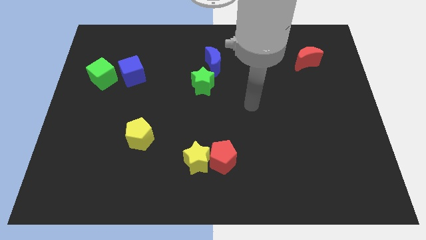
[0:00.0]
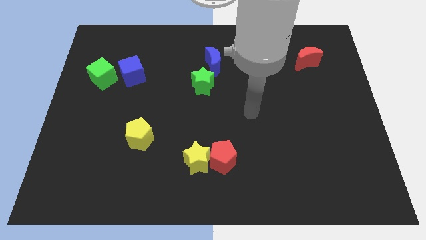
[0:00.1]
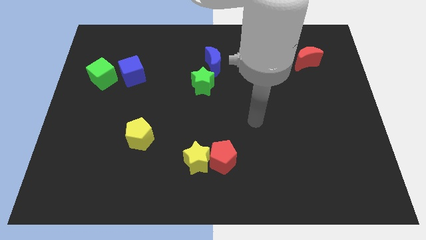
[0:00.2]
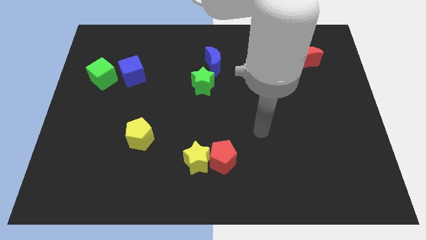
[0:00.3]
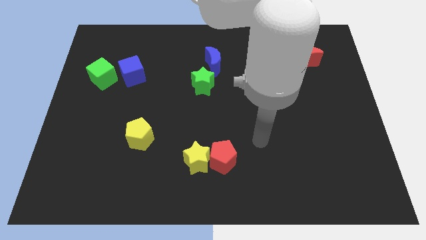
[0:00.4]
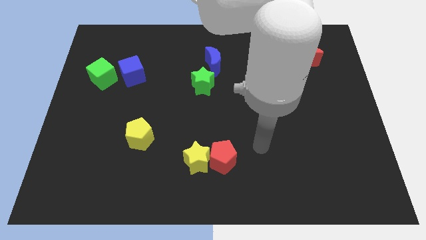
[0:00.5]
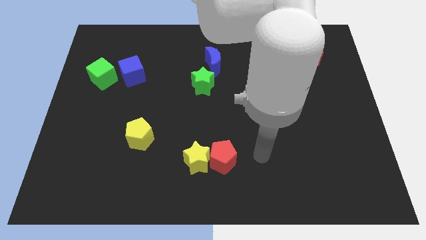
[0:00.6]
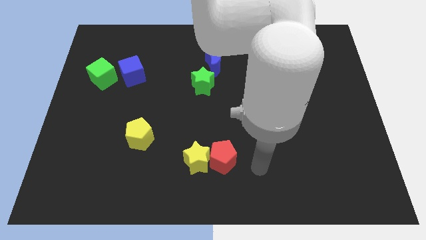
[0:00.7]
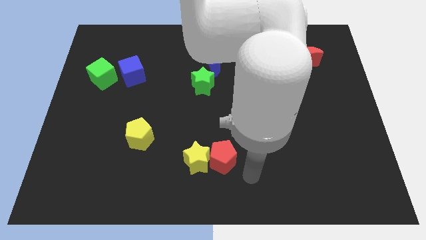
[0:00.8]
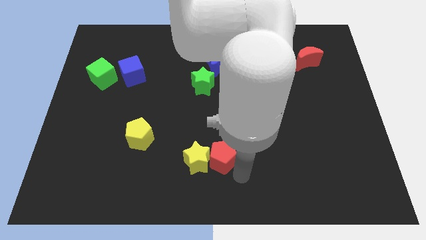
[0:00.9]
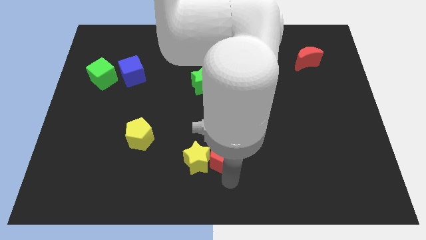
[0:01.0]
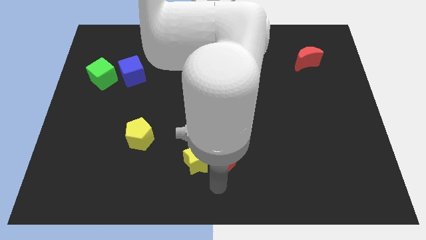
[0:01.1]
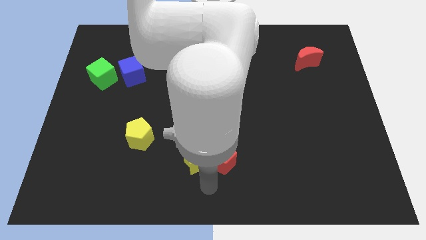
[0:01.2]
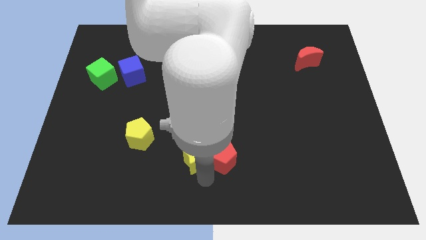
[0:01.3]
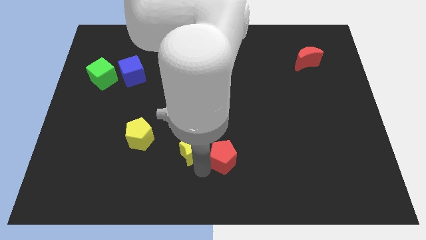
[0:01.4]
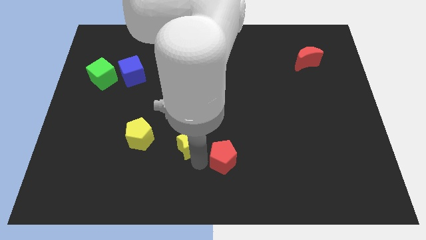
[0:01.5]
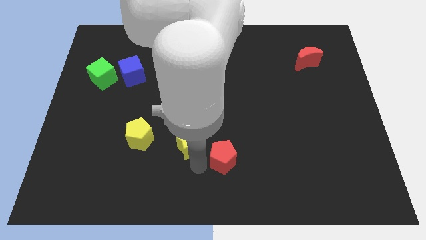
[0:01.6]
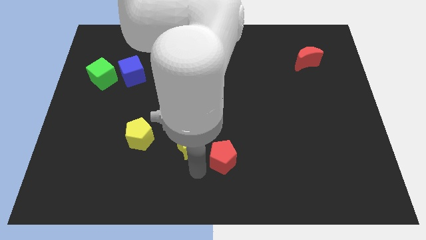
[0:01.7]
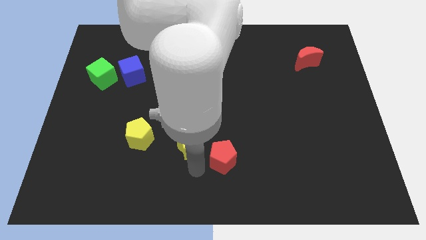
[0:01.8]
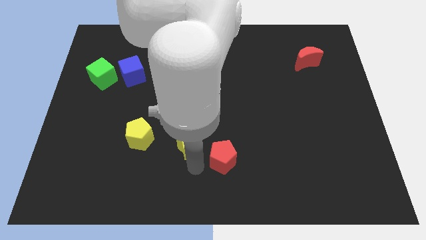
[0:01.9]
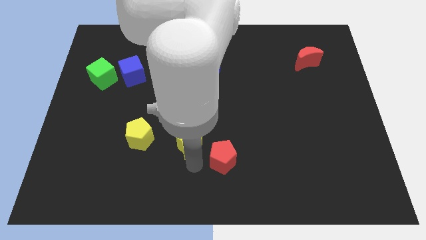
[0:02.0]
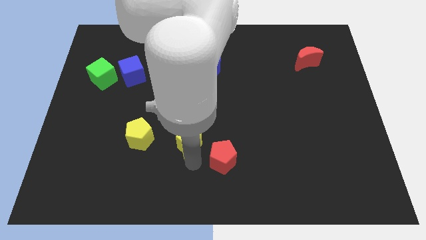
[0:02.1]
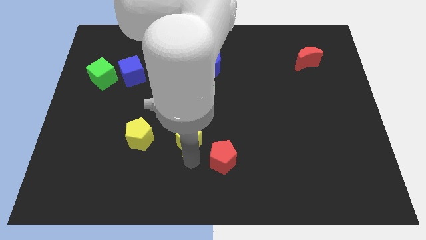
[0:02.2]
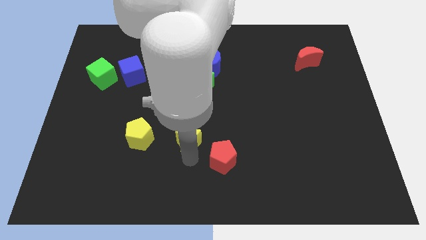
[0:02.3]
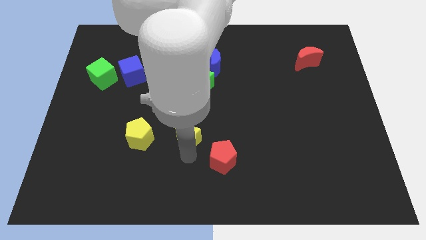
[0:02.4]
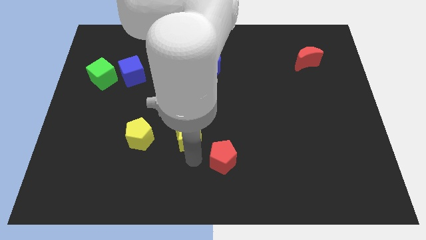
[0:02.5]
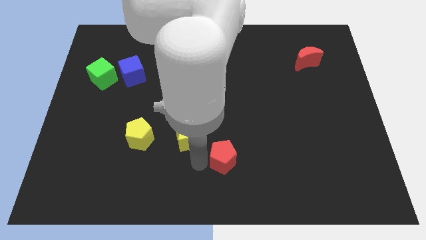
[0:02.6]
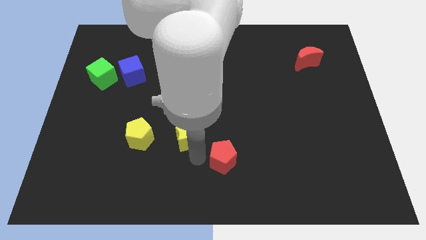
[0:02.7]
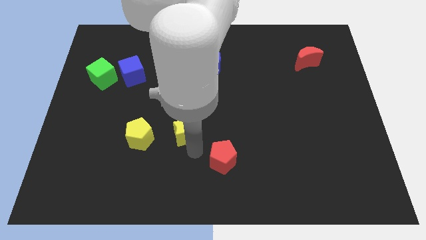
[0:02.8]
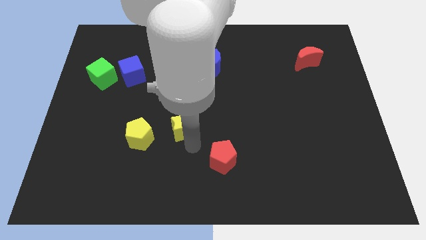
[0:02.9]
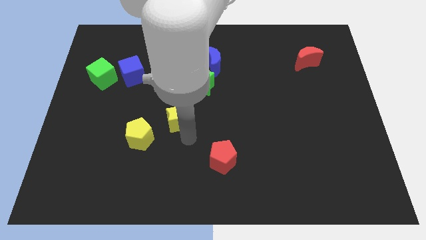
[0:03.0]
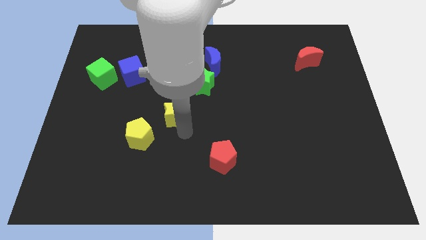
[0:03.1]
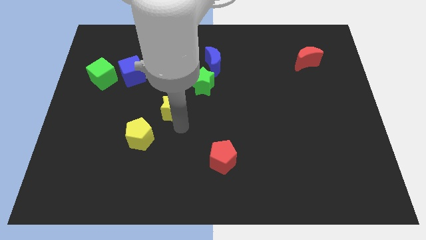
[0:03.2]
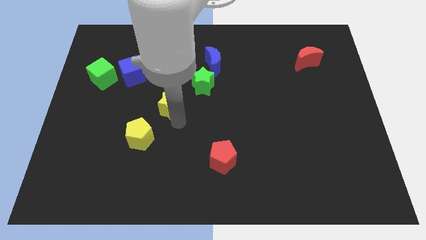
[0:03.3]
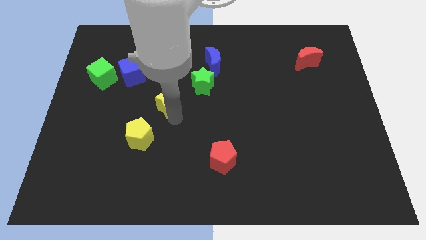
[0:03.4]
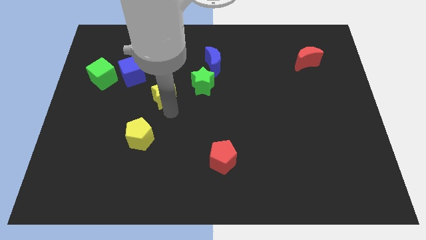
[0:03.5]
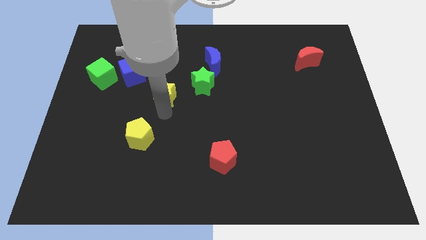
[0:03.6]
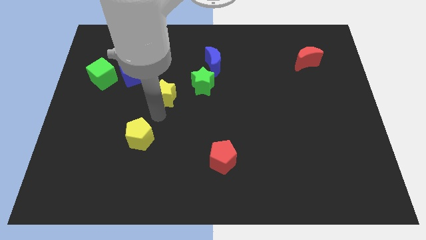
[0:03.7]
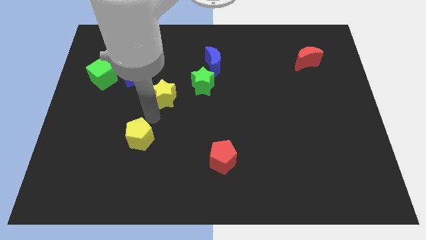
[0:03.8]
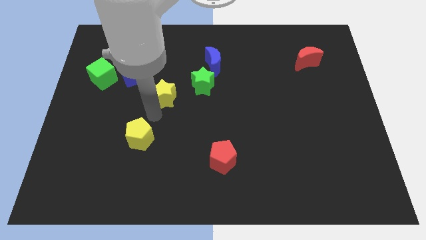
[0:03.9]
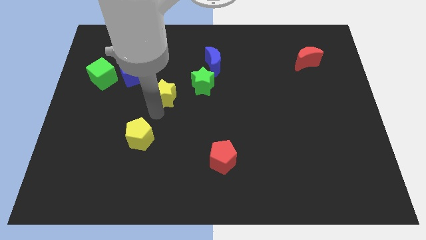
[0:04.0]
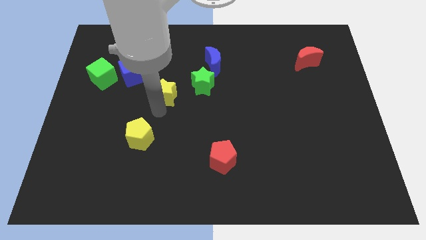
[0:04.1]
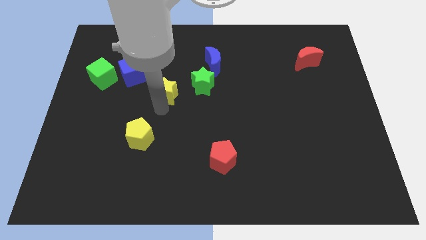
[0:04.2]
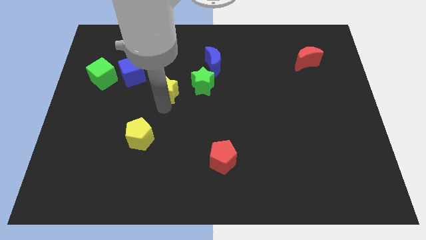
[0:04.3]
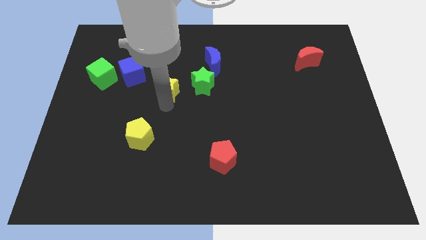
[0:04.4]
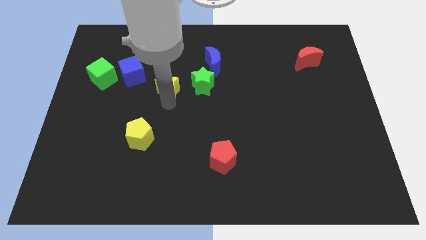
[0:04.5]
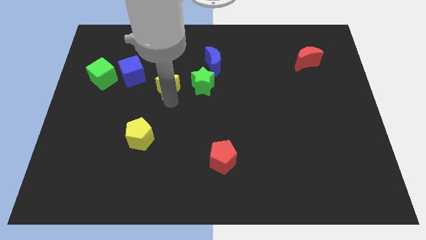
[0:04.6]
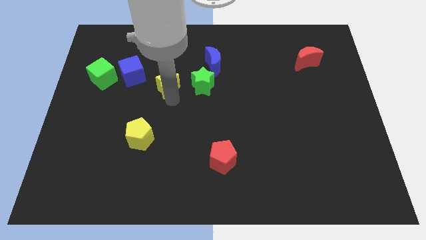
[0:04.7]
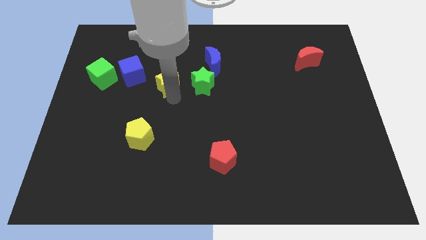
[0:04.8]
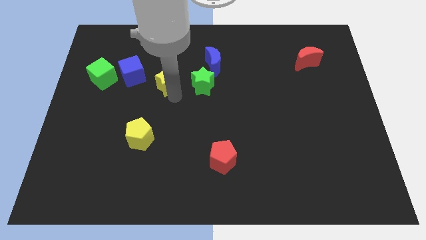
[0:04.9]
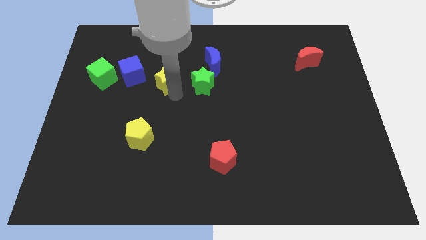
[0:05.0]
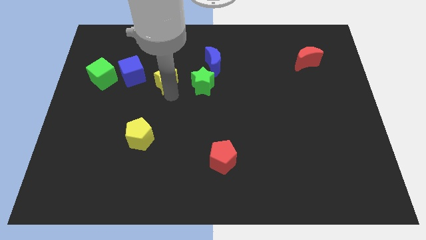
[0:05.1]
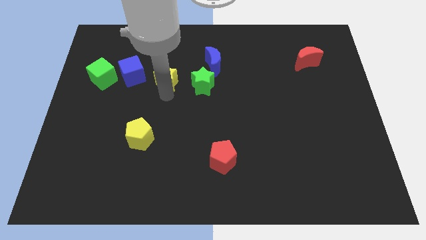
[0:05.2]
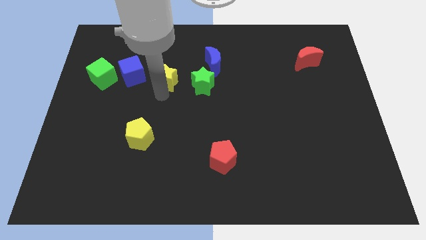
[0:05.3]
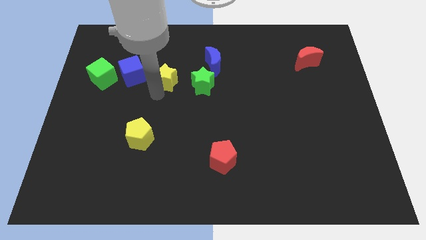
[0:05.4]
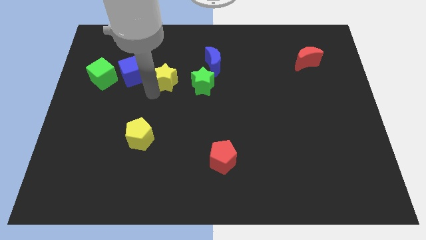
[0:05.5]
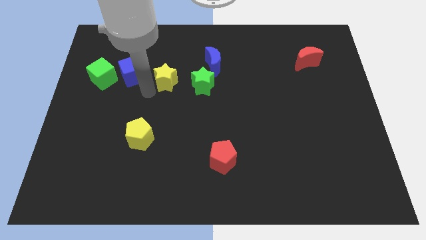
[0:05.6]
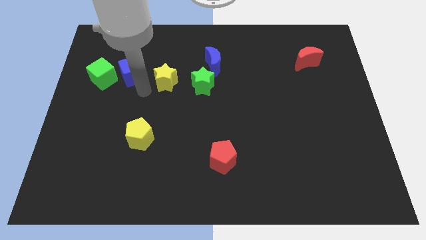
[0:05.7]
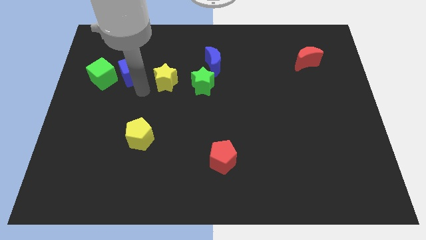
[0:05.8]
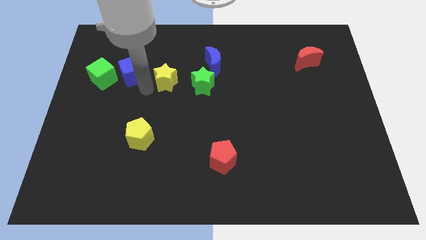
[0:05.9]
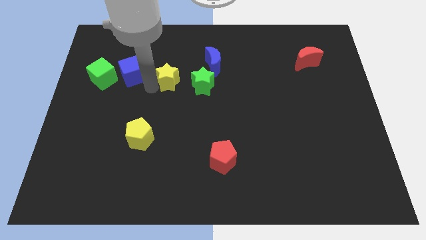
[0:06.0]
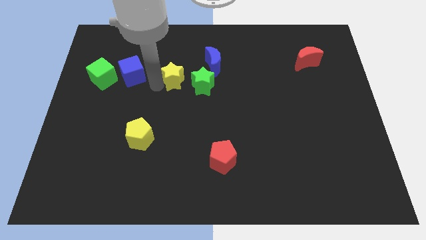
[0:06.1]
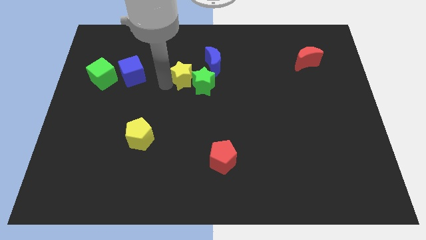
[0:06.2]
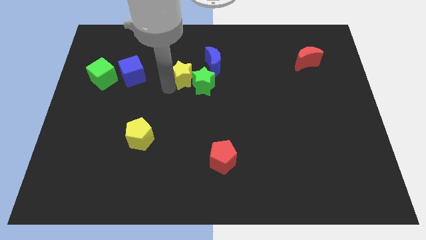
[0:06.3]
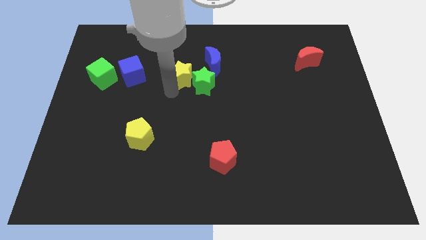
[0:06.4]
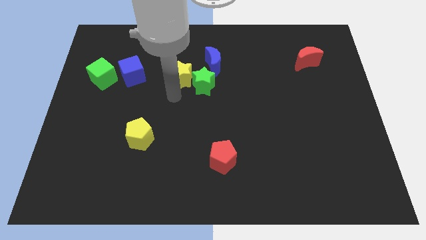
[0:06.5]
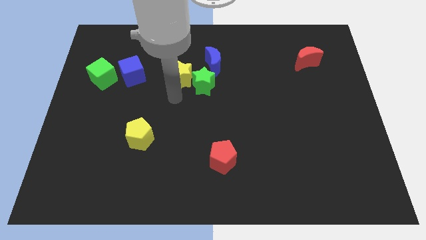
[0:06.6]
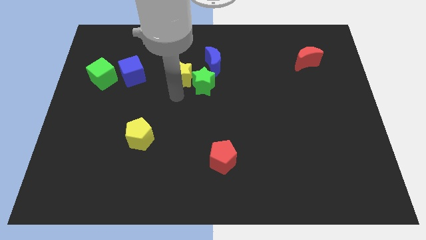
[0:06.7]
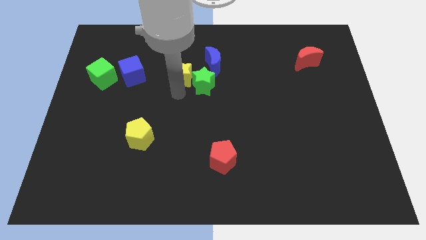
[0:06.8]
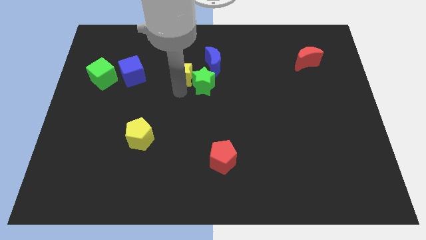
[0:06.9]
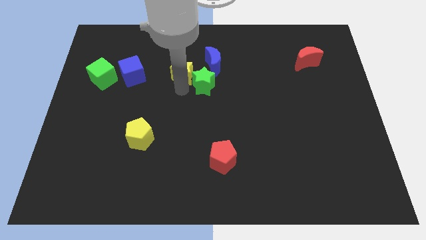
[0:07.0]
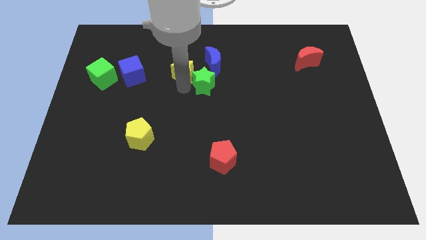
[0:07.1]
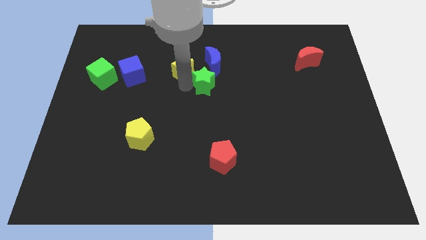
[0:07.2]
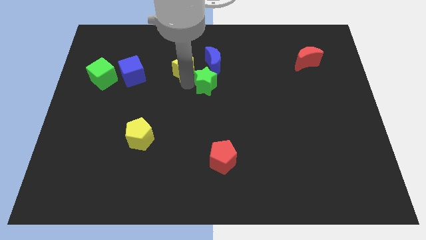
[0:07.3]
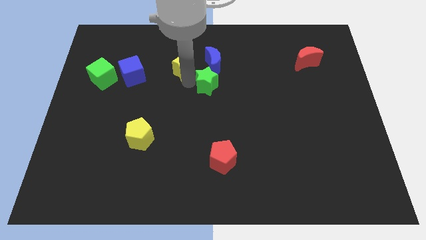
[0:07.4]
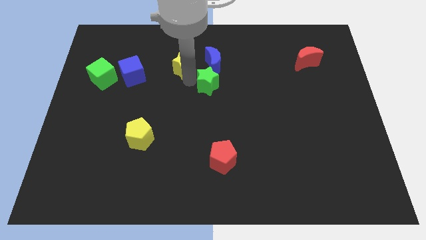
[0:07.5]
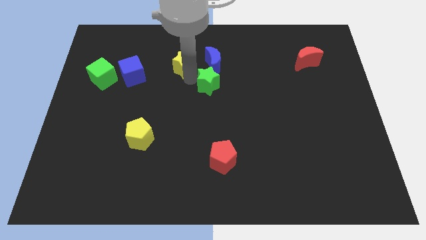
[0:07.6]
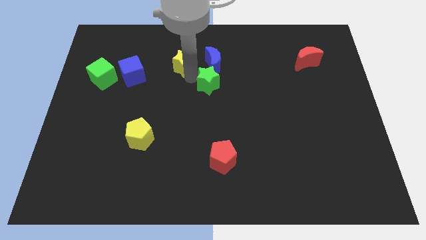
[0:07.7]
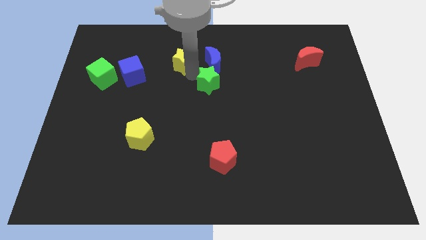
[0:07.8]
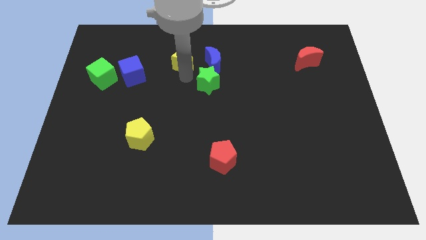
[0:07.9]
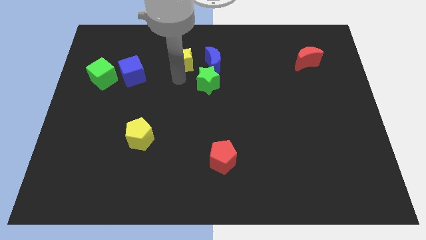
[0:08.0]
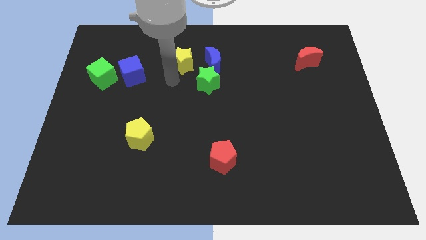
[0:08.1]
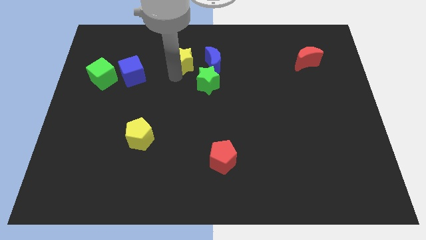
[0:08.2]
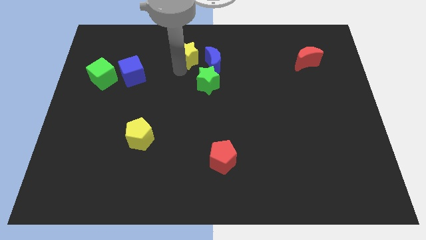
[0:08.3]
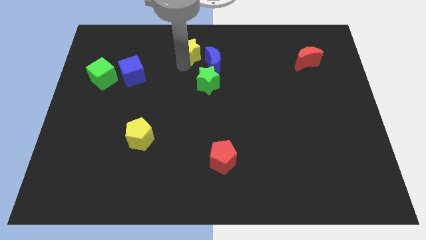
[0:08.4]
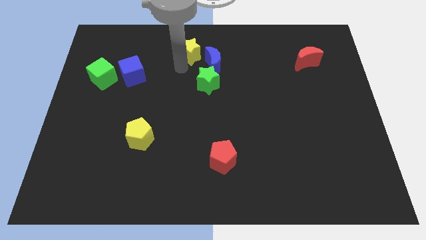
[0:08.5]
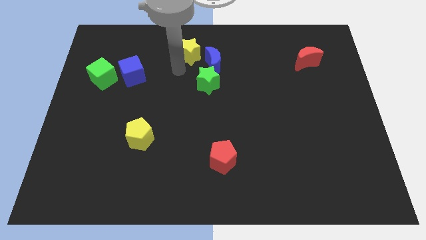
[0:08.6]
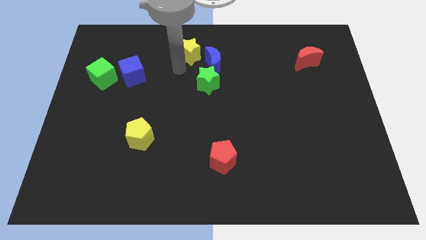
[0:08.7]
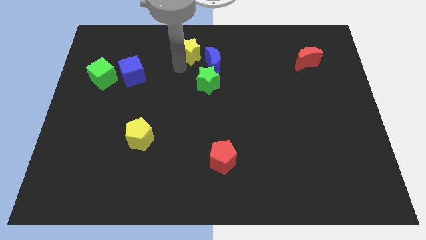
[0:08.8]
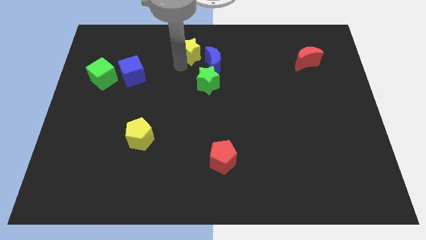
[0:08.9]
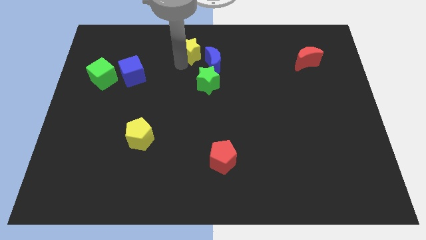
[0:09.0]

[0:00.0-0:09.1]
push the yellow star to the top
